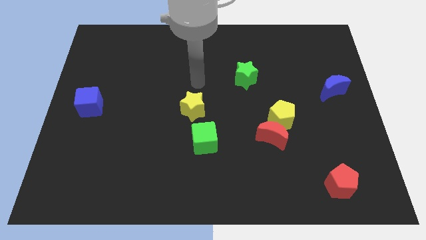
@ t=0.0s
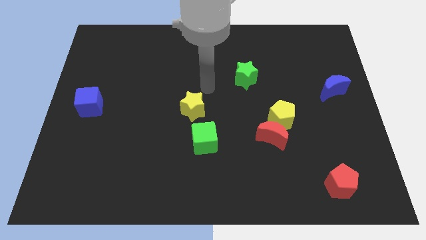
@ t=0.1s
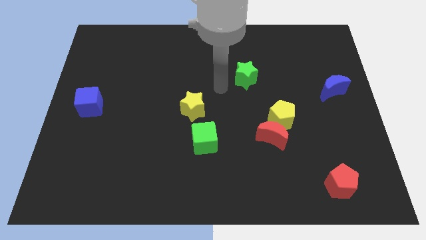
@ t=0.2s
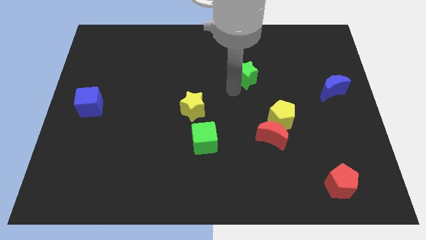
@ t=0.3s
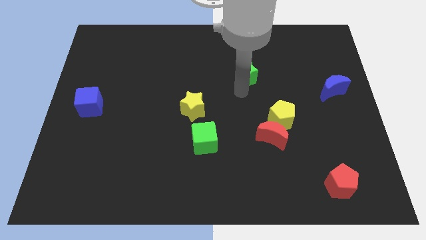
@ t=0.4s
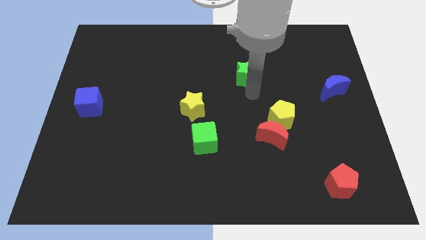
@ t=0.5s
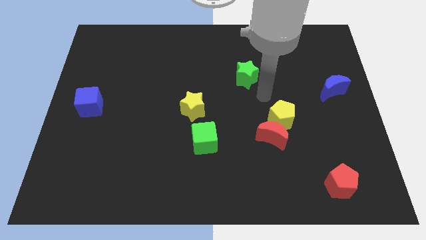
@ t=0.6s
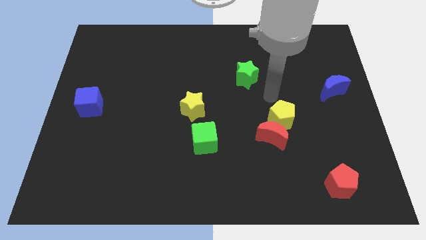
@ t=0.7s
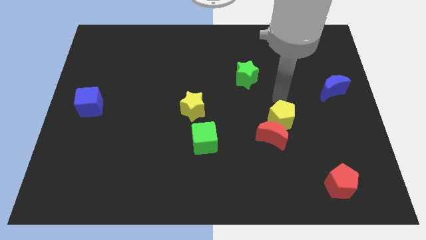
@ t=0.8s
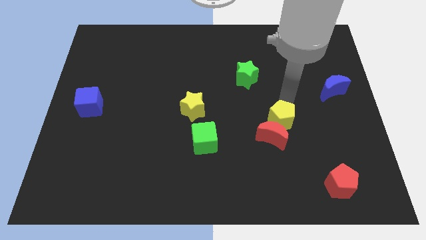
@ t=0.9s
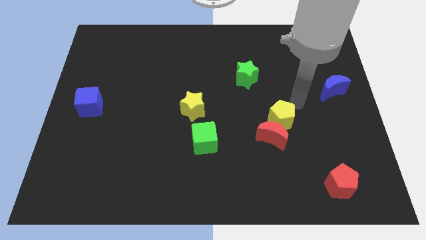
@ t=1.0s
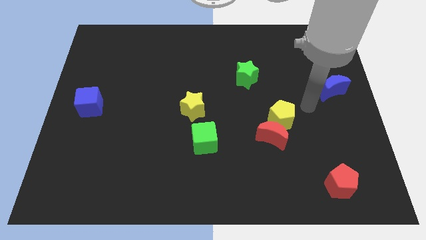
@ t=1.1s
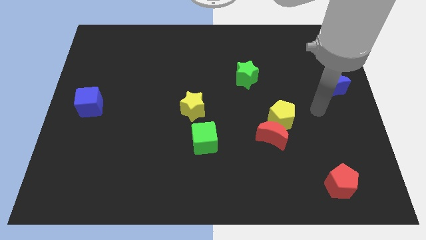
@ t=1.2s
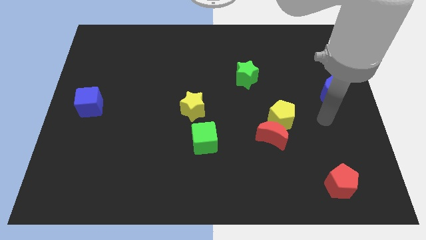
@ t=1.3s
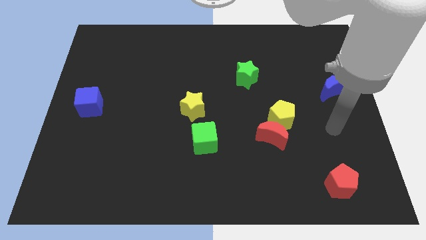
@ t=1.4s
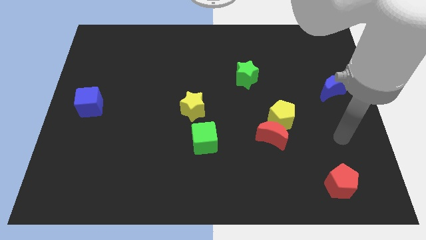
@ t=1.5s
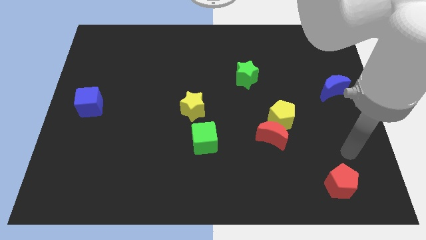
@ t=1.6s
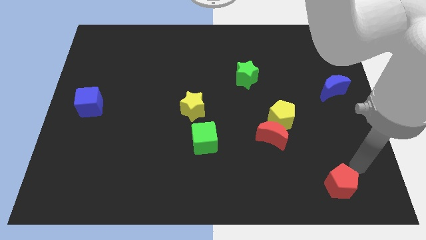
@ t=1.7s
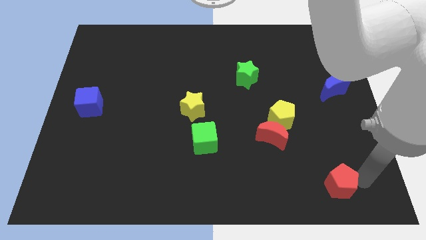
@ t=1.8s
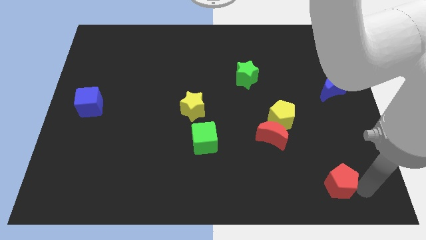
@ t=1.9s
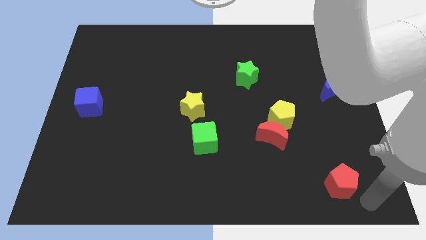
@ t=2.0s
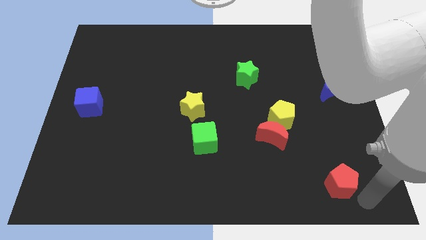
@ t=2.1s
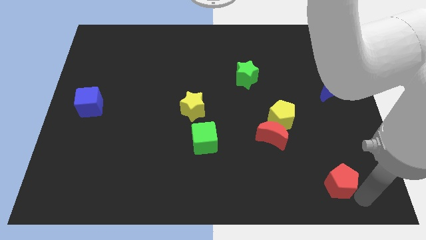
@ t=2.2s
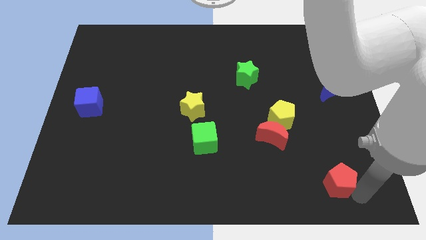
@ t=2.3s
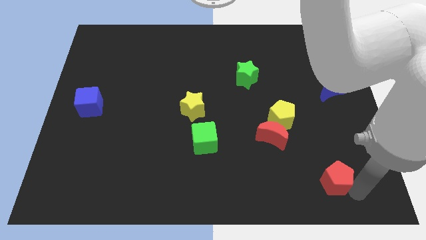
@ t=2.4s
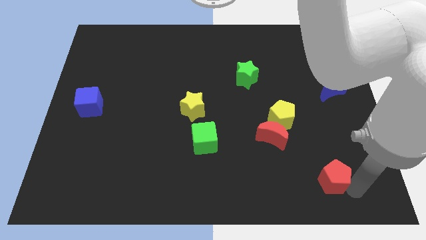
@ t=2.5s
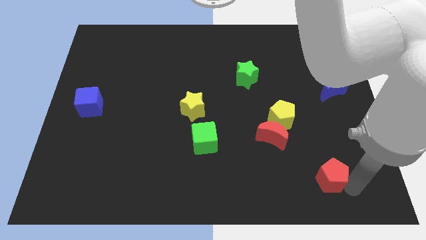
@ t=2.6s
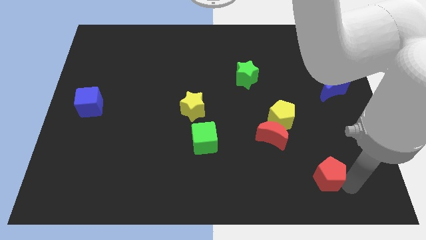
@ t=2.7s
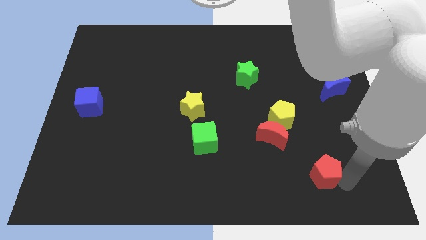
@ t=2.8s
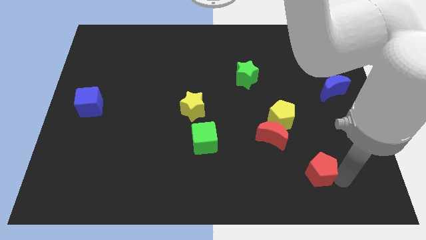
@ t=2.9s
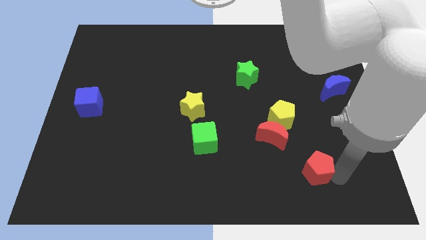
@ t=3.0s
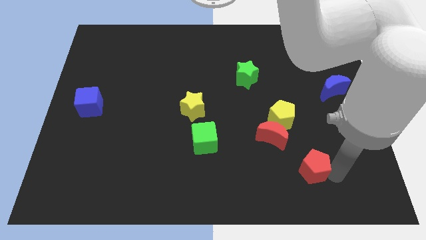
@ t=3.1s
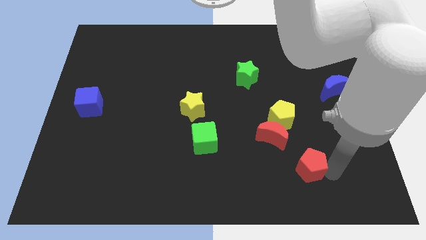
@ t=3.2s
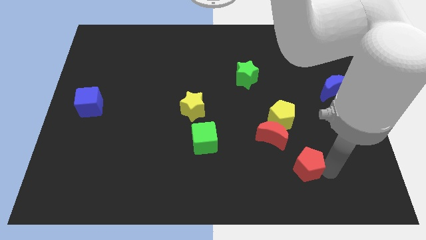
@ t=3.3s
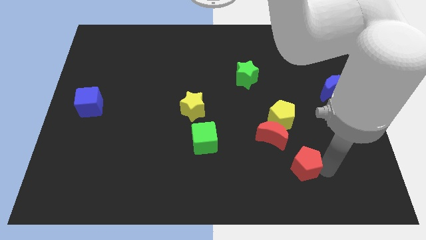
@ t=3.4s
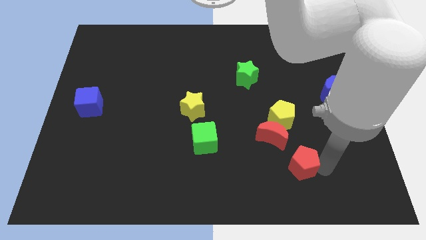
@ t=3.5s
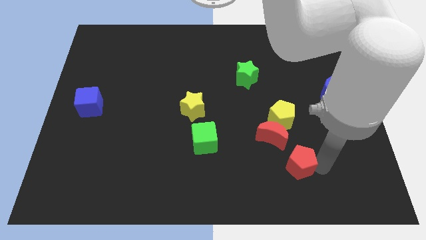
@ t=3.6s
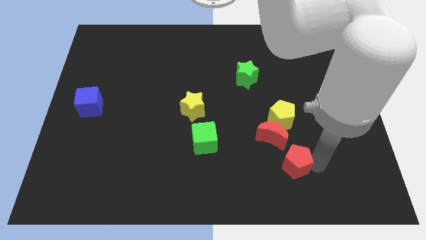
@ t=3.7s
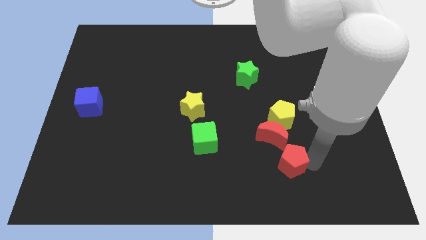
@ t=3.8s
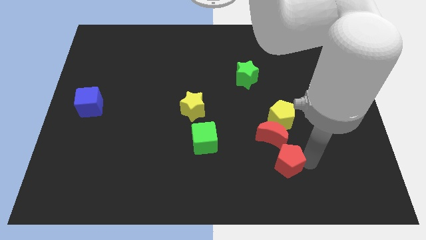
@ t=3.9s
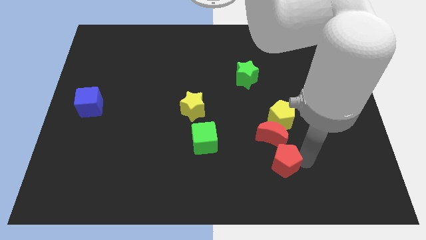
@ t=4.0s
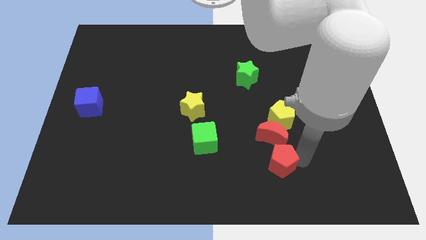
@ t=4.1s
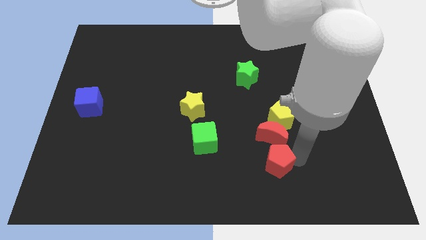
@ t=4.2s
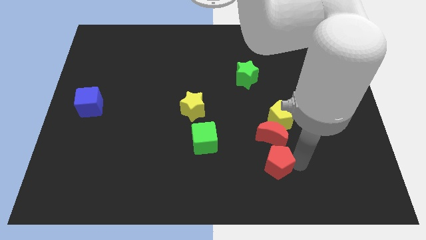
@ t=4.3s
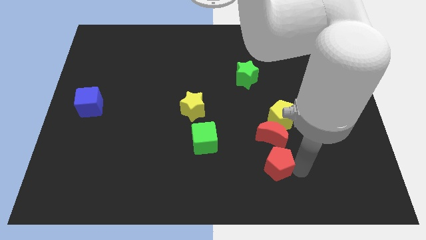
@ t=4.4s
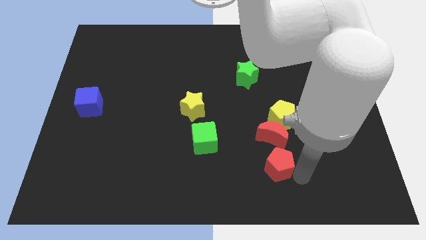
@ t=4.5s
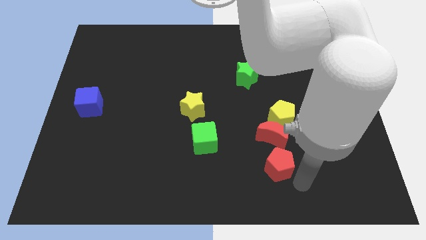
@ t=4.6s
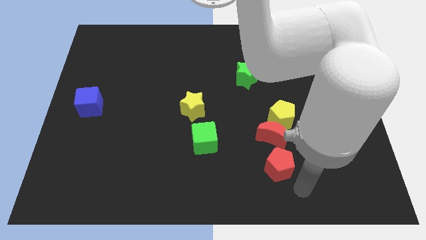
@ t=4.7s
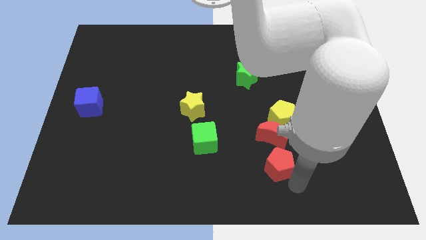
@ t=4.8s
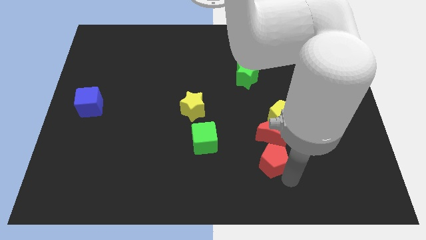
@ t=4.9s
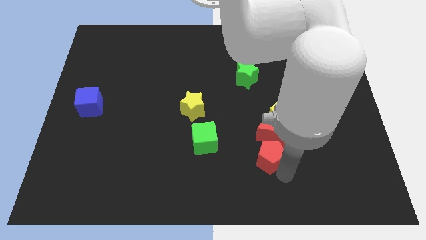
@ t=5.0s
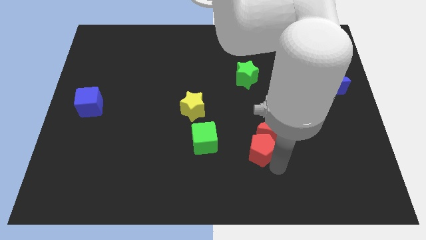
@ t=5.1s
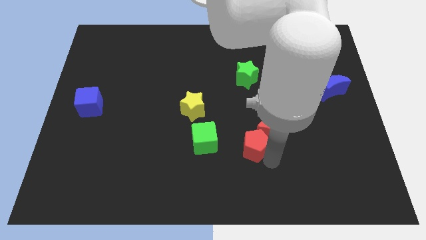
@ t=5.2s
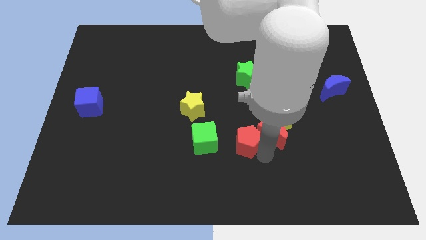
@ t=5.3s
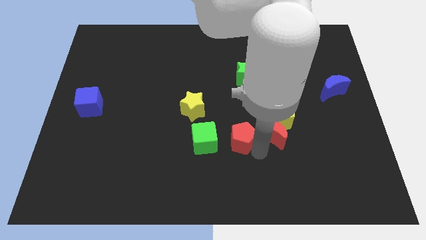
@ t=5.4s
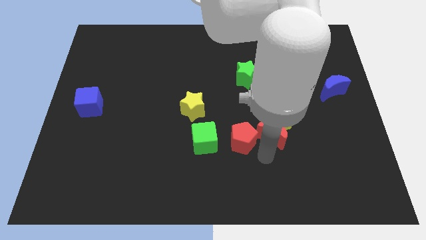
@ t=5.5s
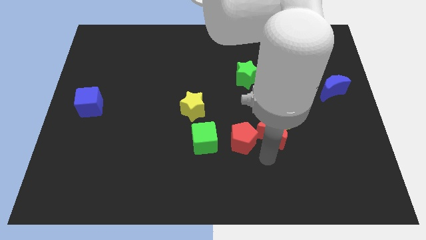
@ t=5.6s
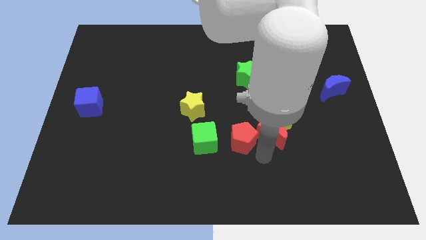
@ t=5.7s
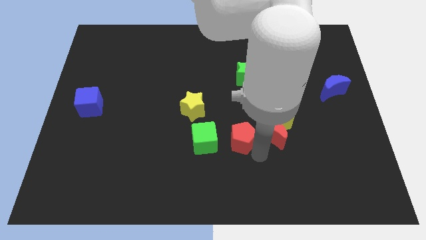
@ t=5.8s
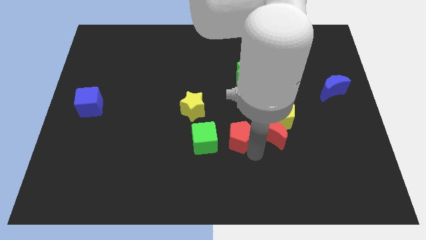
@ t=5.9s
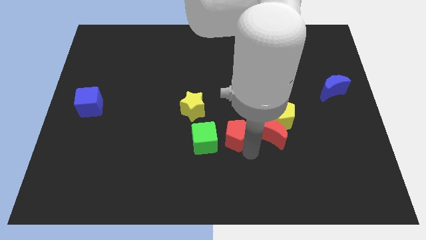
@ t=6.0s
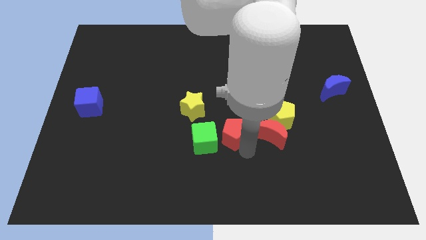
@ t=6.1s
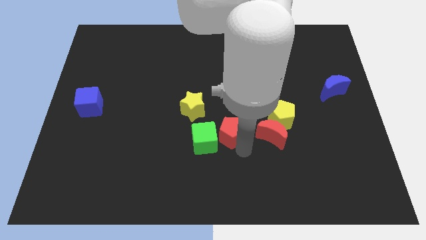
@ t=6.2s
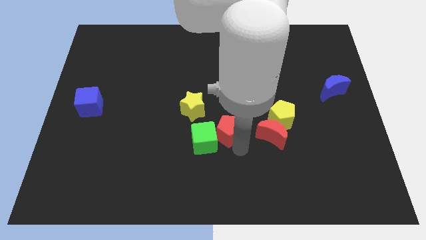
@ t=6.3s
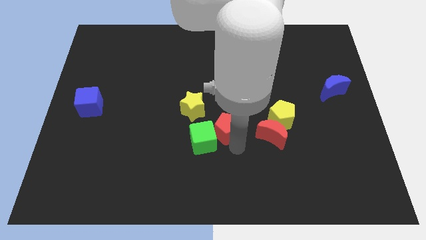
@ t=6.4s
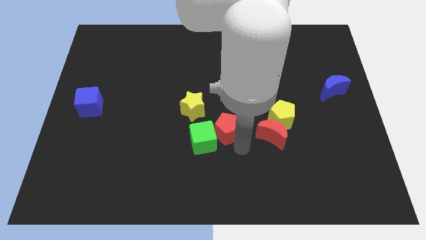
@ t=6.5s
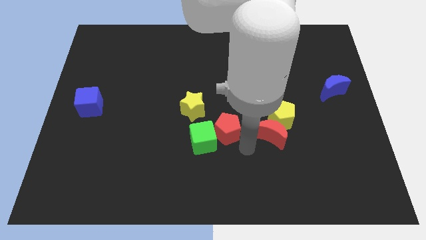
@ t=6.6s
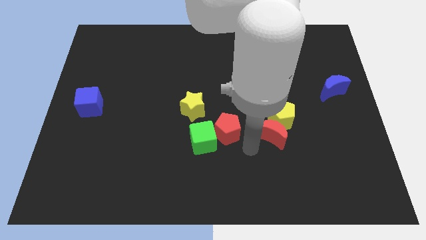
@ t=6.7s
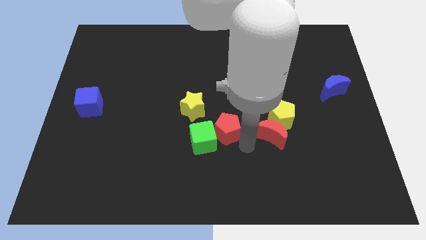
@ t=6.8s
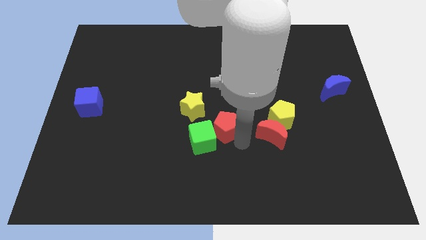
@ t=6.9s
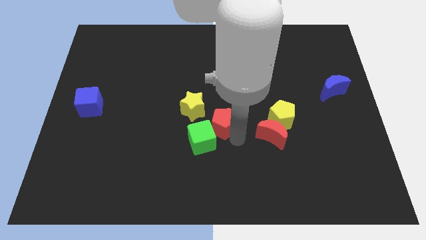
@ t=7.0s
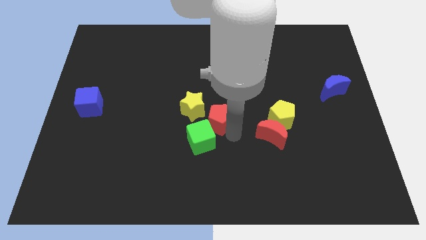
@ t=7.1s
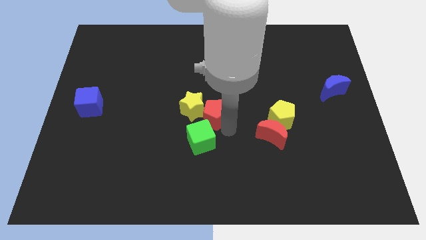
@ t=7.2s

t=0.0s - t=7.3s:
slide the red pentagon next to the yellow star

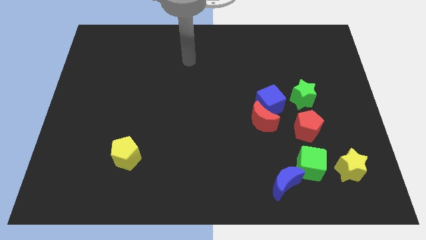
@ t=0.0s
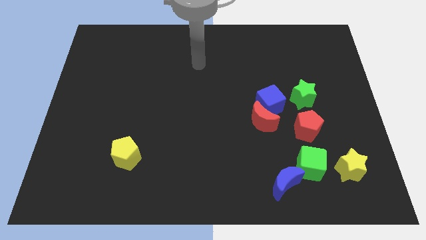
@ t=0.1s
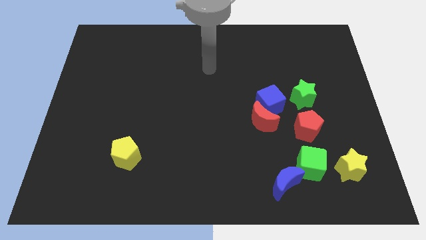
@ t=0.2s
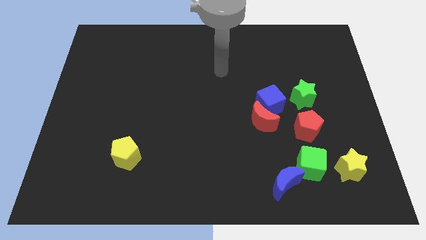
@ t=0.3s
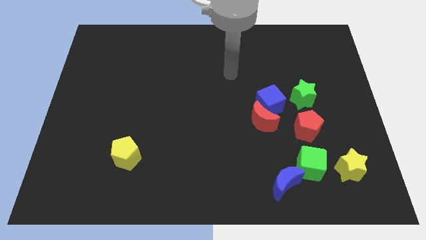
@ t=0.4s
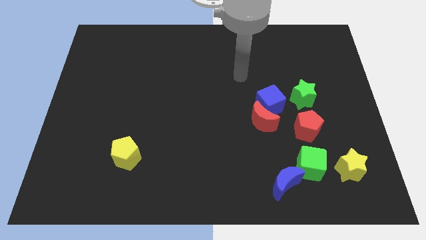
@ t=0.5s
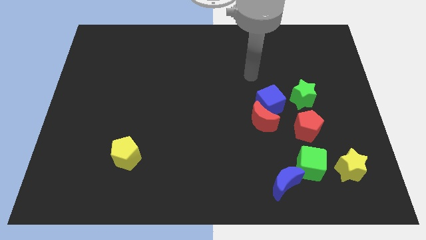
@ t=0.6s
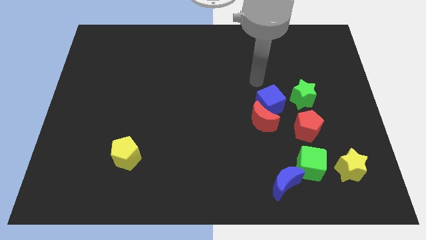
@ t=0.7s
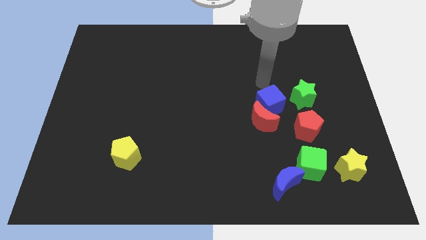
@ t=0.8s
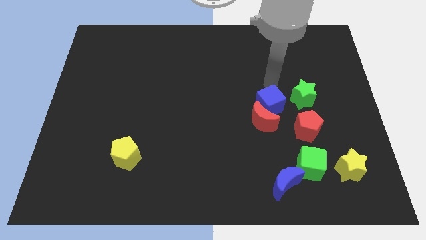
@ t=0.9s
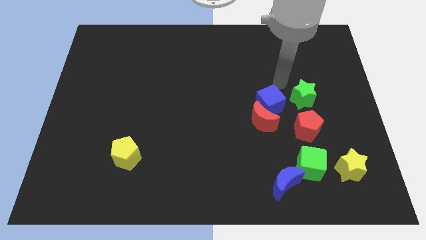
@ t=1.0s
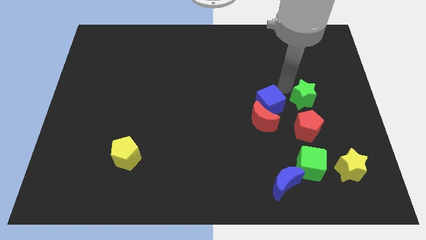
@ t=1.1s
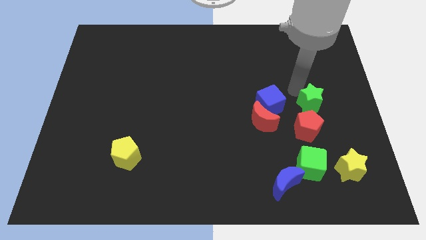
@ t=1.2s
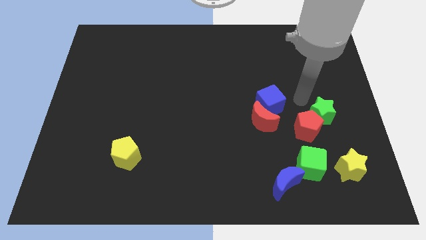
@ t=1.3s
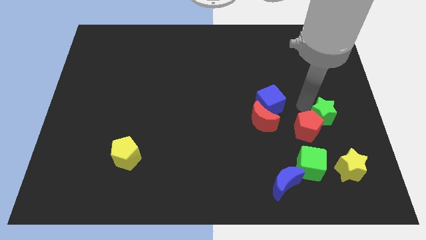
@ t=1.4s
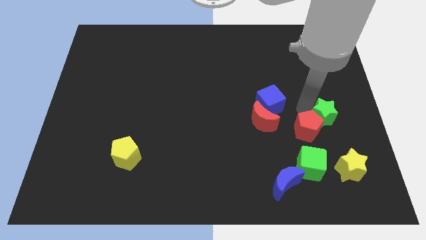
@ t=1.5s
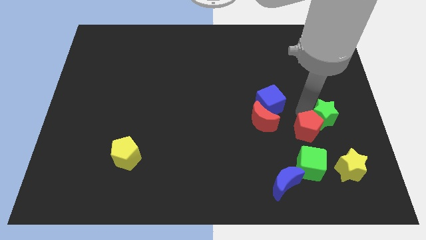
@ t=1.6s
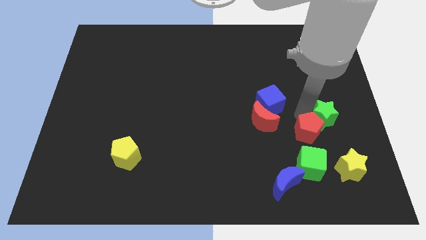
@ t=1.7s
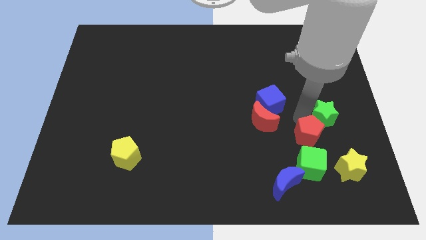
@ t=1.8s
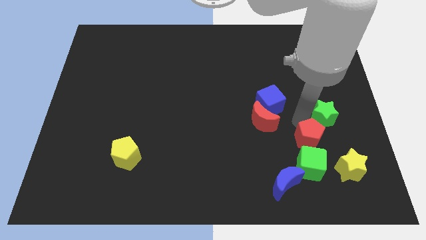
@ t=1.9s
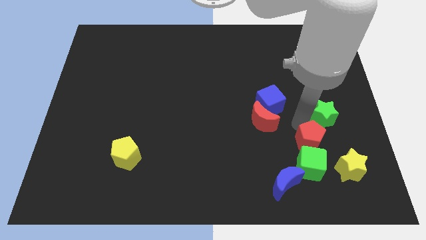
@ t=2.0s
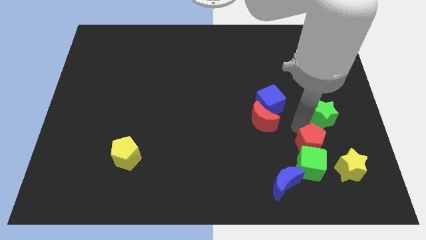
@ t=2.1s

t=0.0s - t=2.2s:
slide the red pentagon next to the green cube
